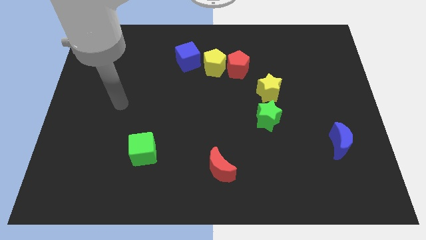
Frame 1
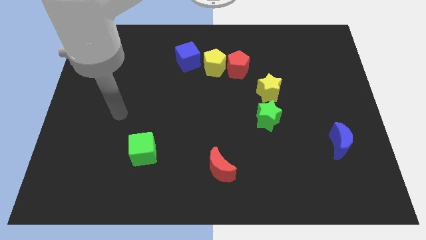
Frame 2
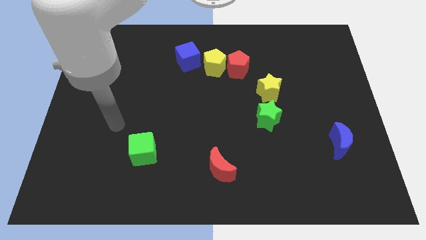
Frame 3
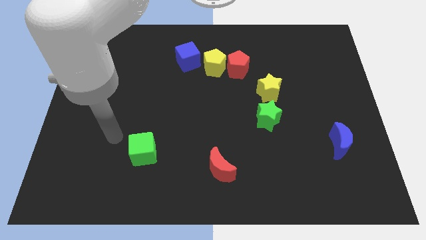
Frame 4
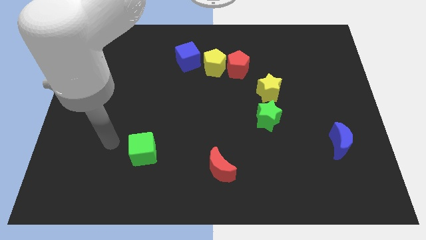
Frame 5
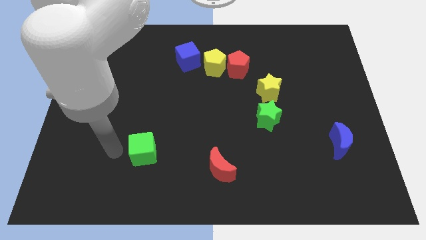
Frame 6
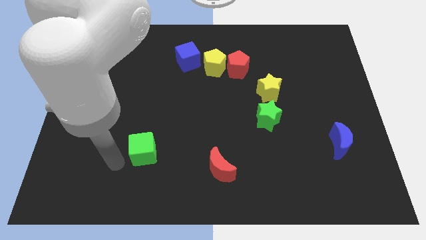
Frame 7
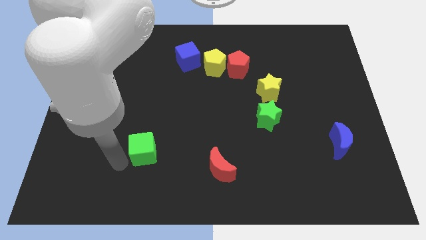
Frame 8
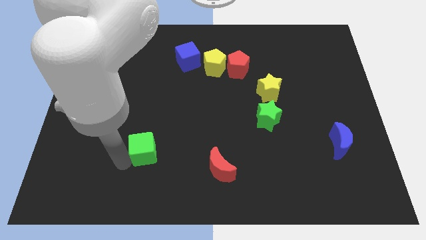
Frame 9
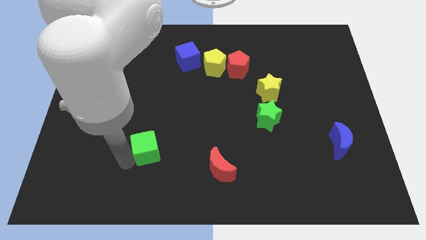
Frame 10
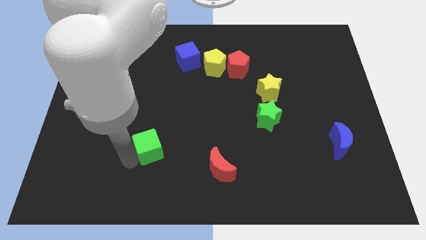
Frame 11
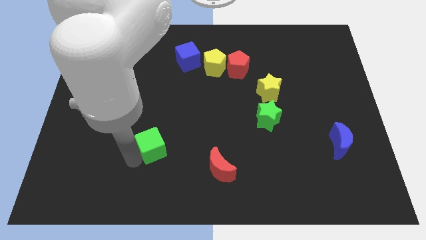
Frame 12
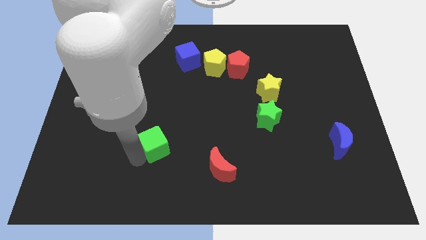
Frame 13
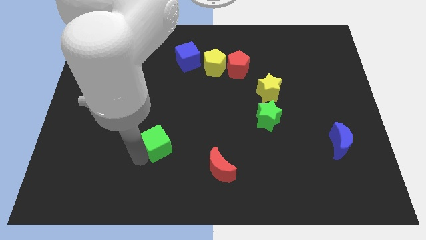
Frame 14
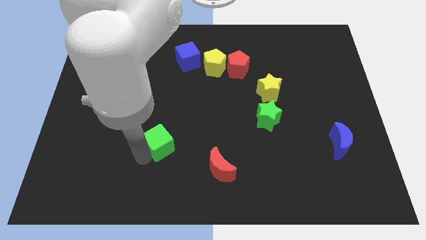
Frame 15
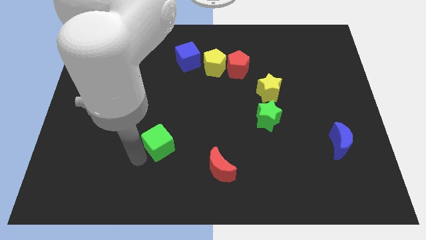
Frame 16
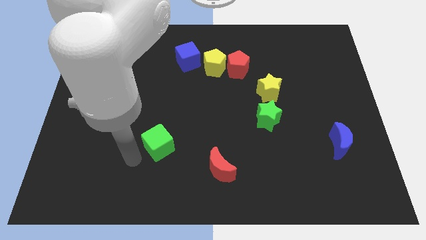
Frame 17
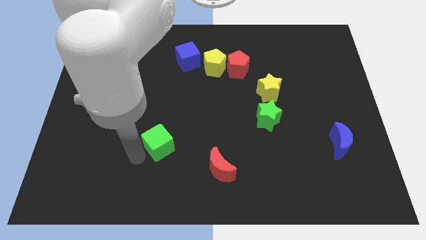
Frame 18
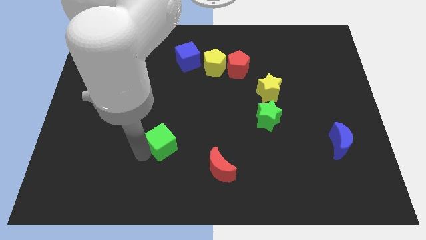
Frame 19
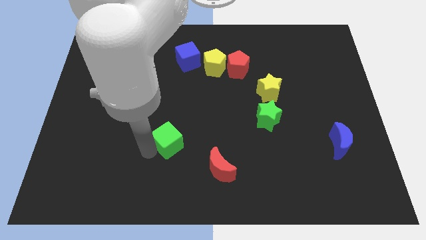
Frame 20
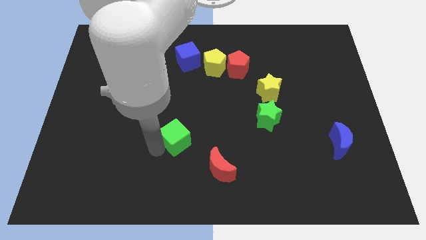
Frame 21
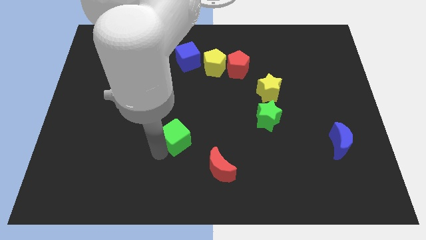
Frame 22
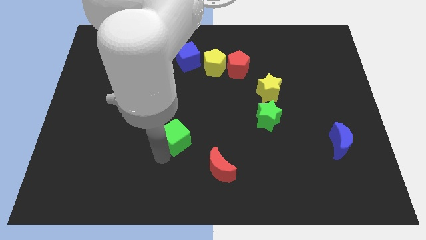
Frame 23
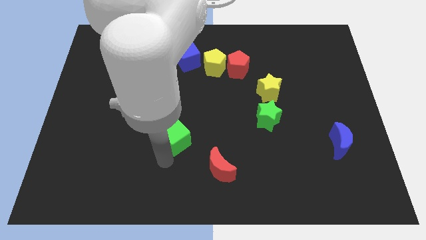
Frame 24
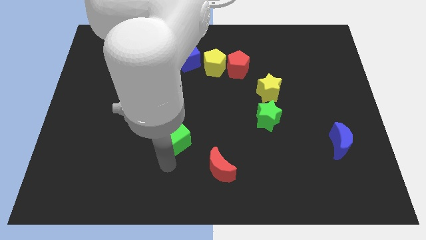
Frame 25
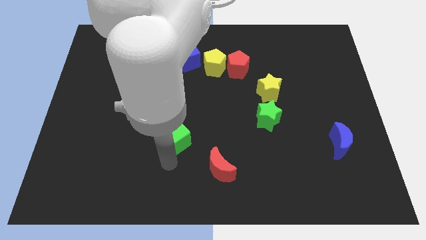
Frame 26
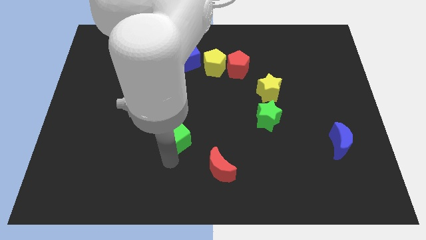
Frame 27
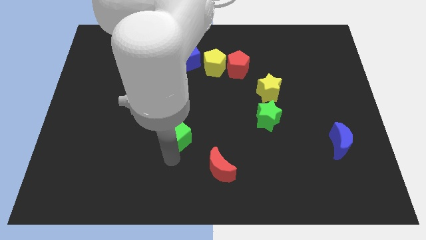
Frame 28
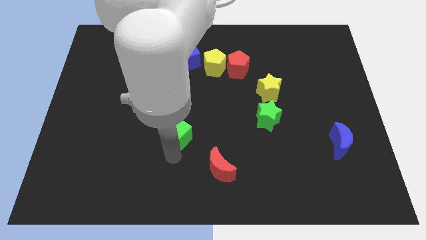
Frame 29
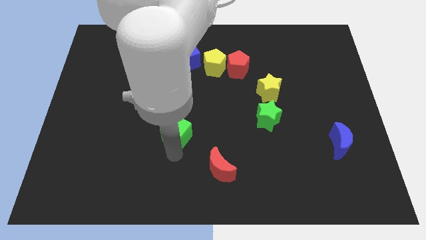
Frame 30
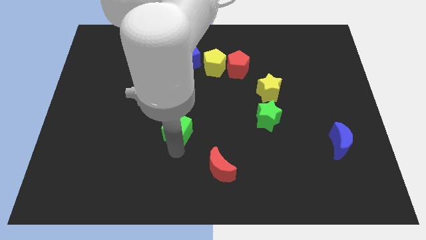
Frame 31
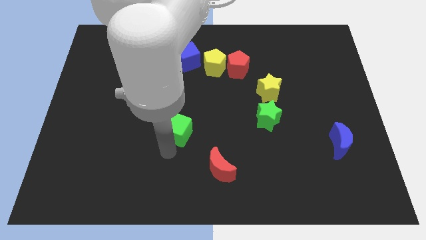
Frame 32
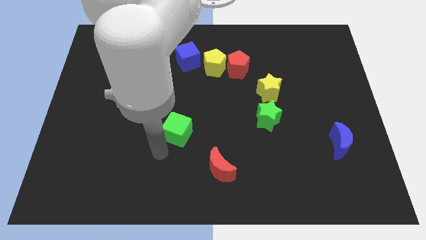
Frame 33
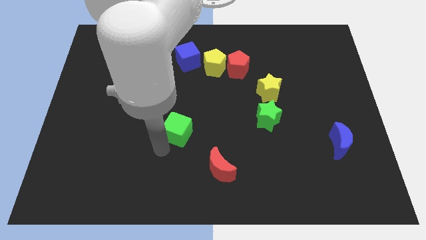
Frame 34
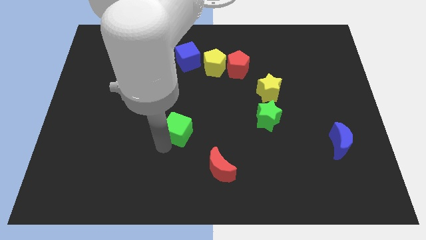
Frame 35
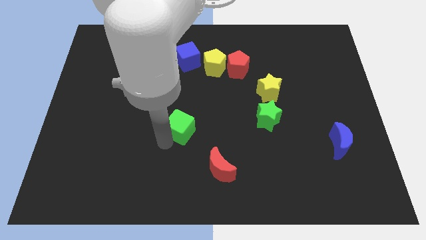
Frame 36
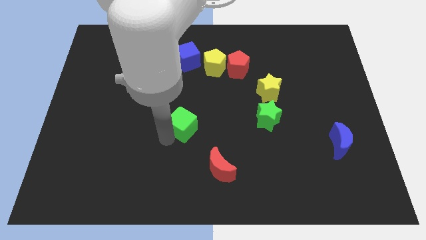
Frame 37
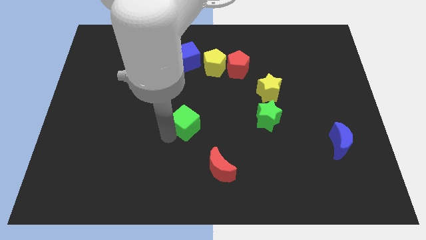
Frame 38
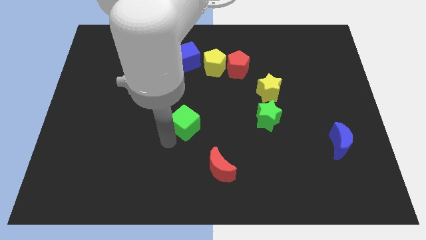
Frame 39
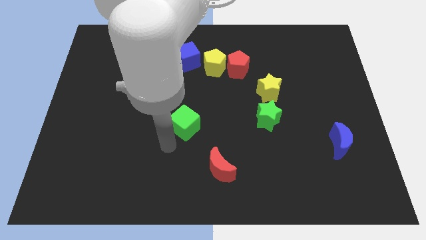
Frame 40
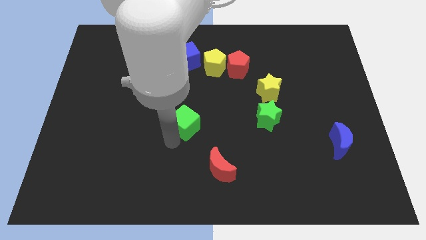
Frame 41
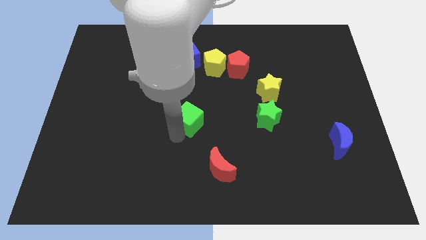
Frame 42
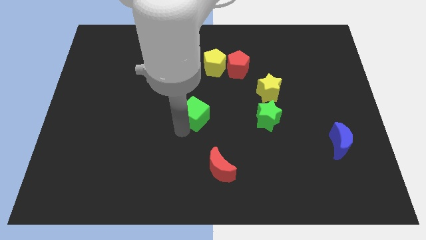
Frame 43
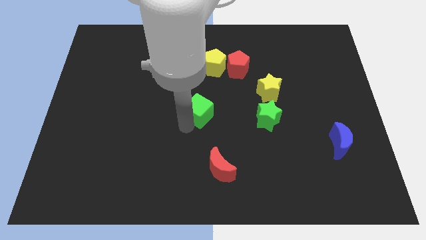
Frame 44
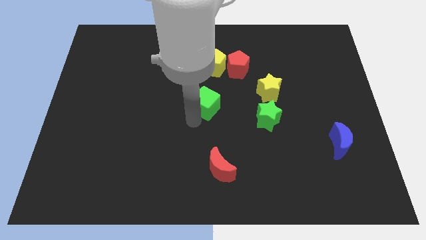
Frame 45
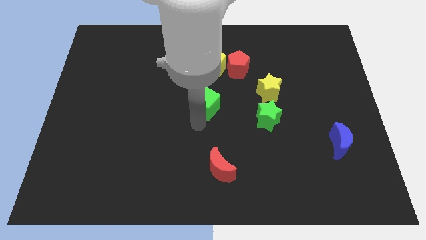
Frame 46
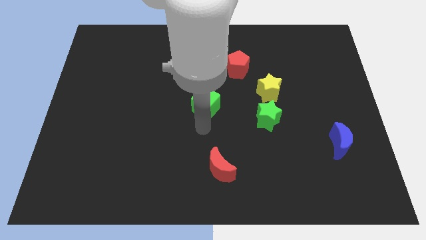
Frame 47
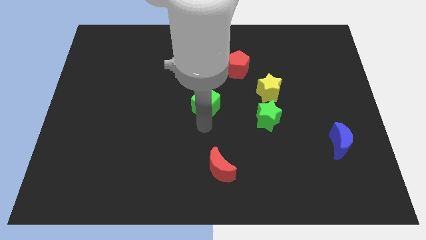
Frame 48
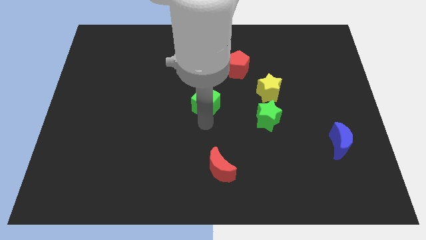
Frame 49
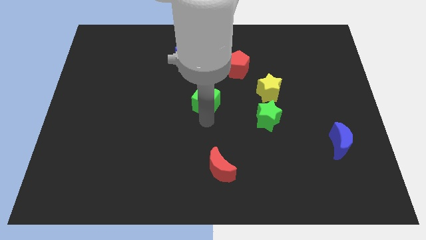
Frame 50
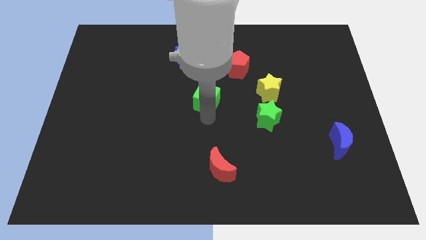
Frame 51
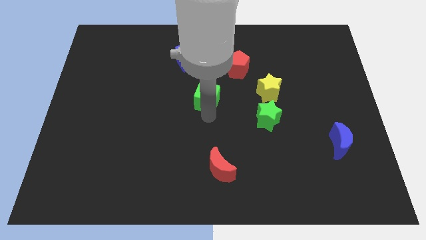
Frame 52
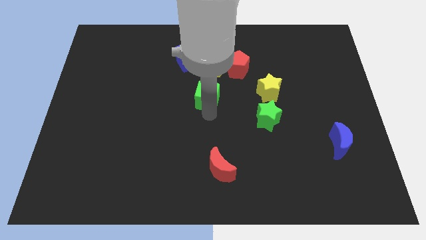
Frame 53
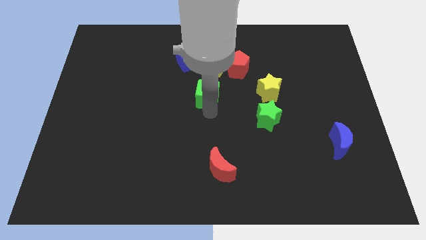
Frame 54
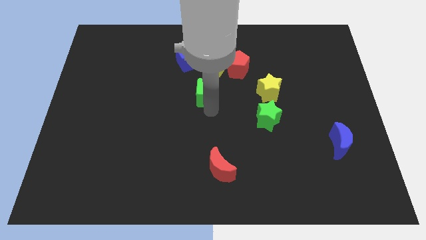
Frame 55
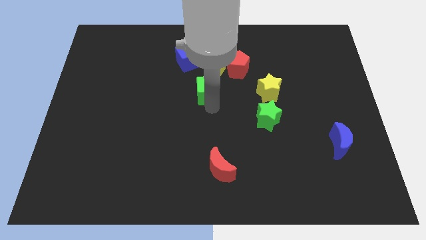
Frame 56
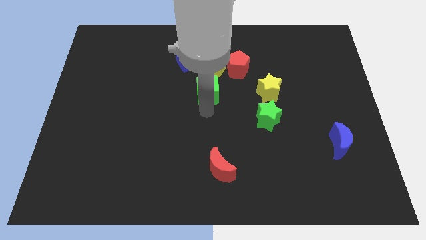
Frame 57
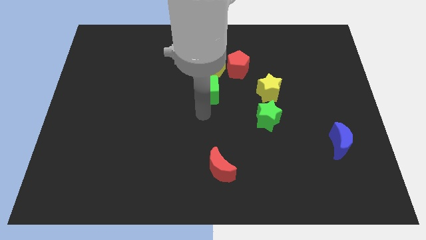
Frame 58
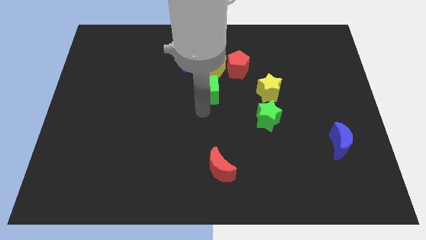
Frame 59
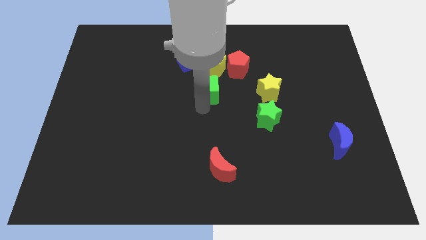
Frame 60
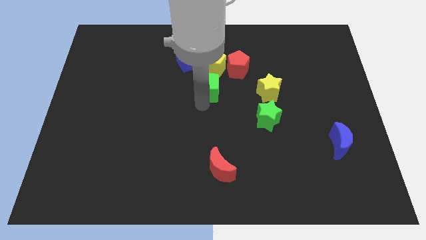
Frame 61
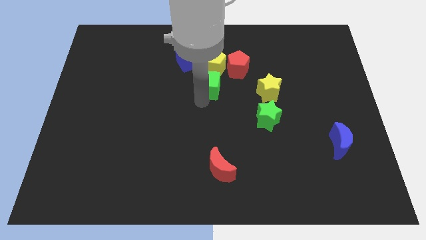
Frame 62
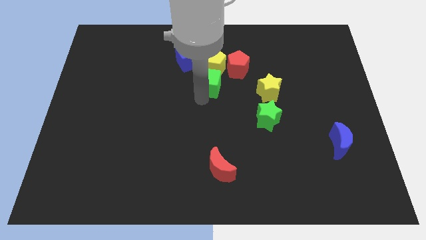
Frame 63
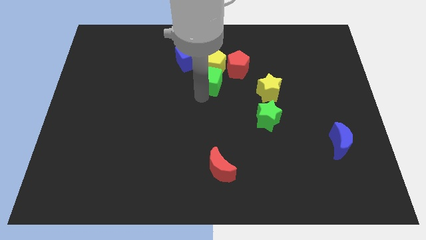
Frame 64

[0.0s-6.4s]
push the green cube next to the yellow pentagon

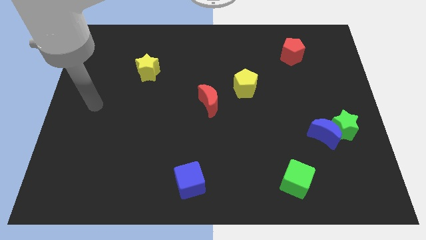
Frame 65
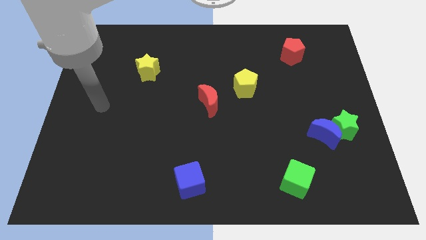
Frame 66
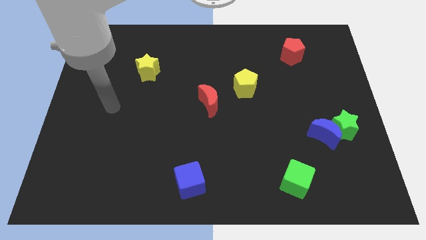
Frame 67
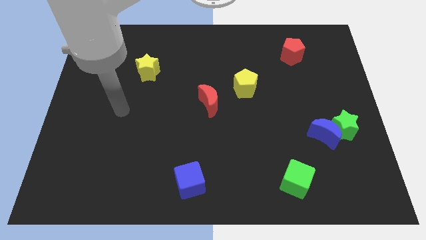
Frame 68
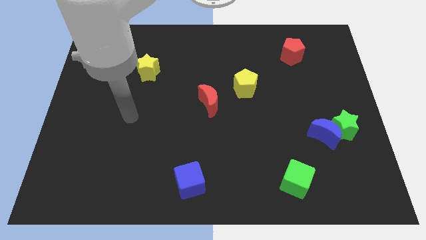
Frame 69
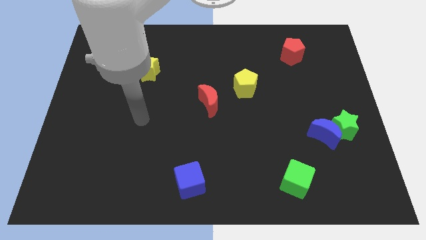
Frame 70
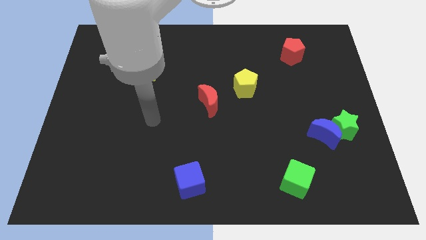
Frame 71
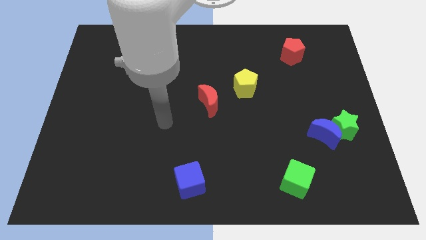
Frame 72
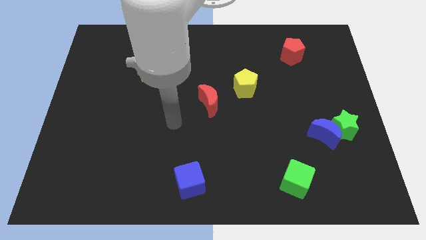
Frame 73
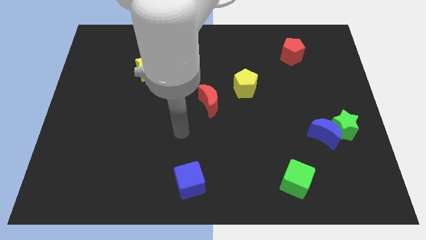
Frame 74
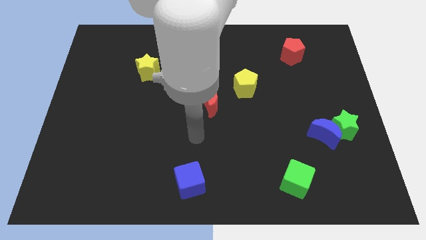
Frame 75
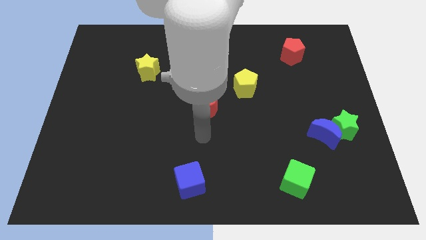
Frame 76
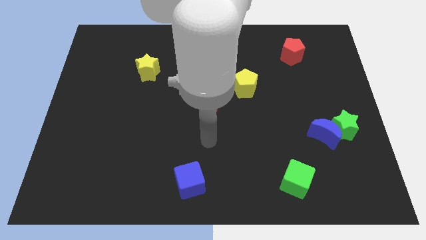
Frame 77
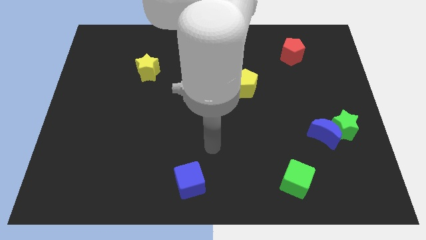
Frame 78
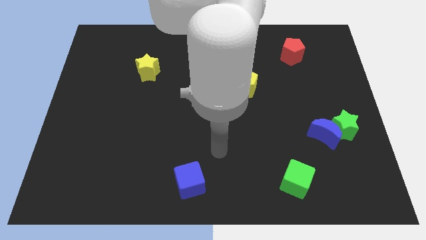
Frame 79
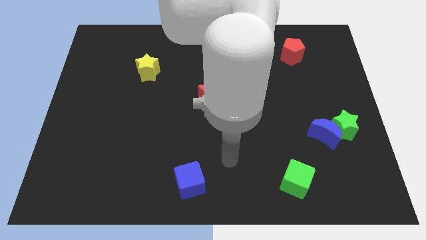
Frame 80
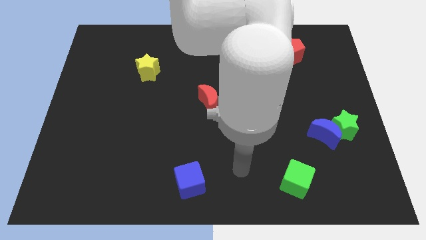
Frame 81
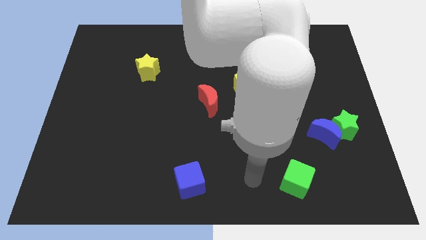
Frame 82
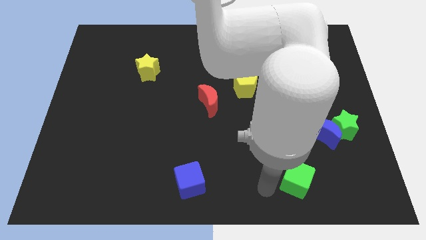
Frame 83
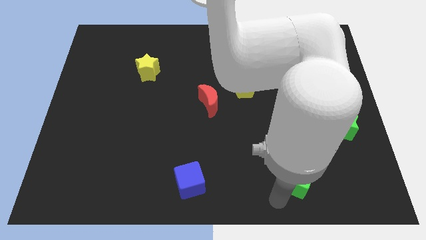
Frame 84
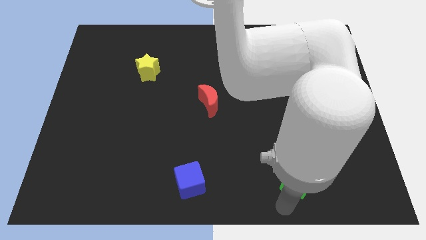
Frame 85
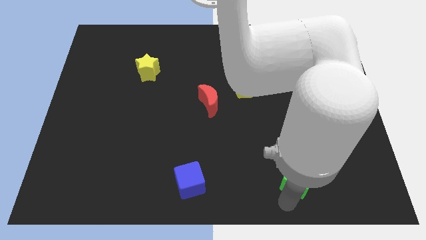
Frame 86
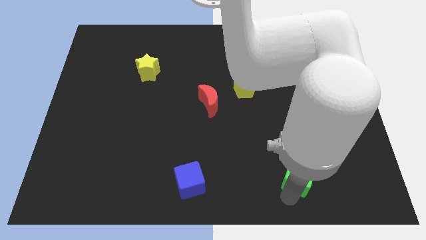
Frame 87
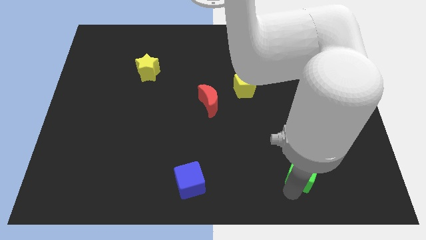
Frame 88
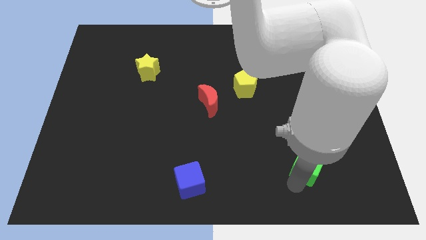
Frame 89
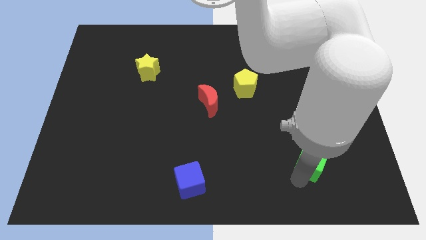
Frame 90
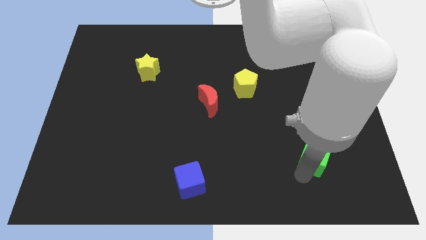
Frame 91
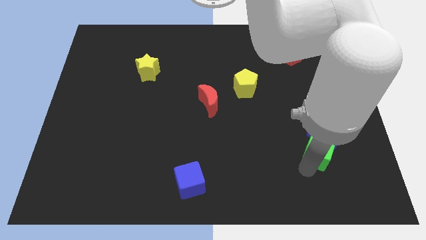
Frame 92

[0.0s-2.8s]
push the green cube next to the blue moon
